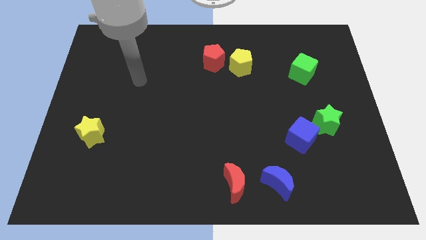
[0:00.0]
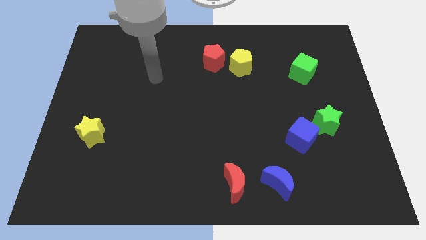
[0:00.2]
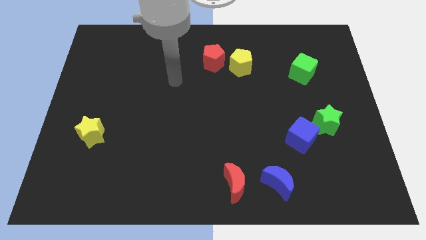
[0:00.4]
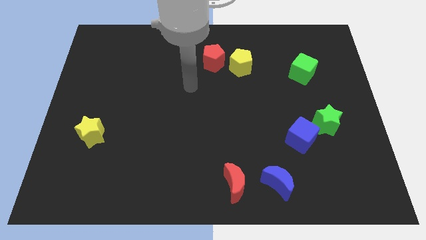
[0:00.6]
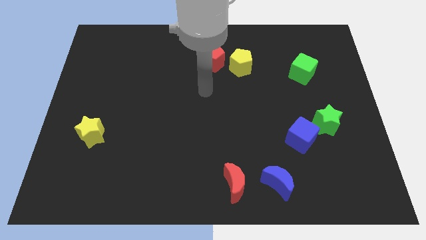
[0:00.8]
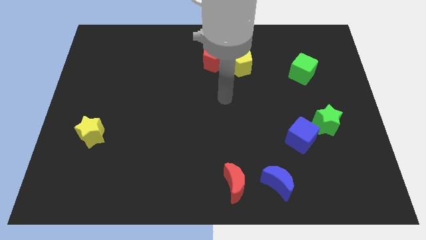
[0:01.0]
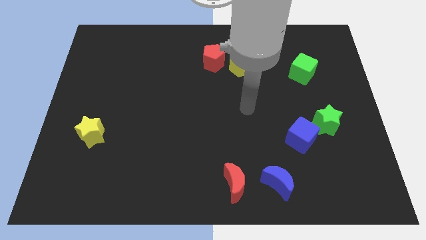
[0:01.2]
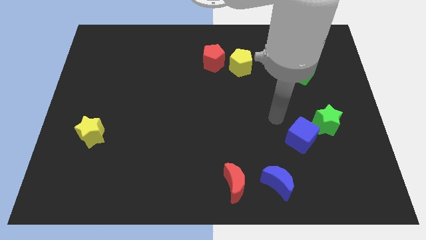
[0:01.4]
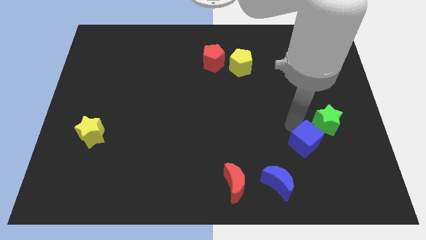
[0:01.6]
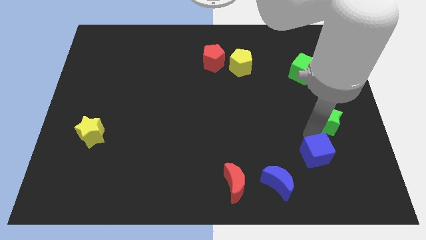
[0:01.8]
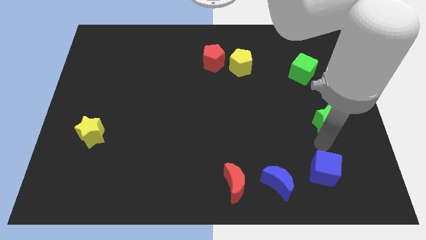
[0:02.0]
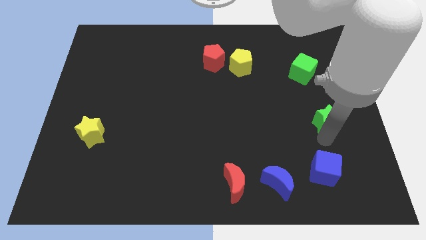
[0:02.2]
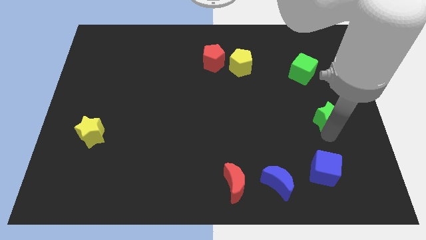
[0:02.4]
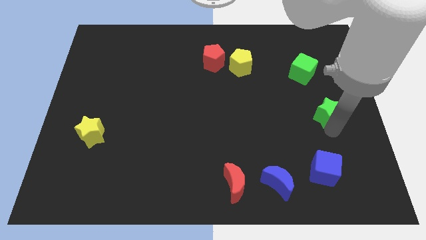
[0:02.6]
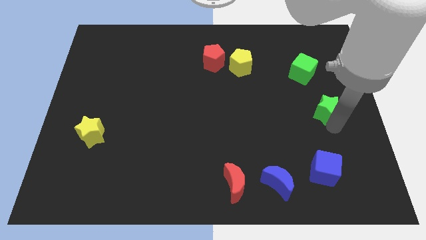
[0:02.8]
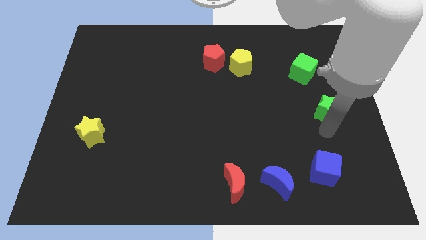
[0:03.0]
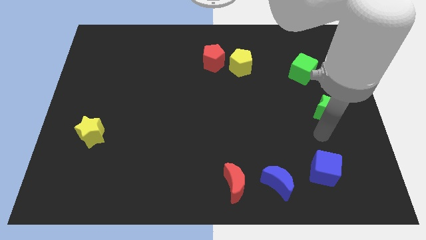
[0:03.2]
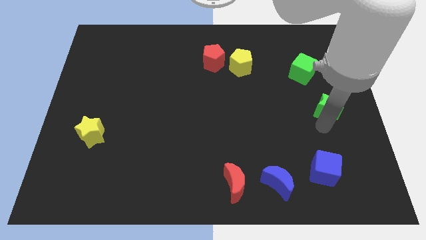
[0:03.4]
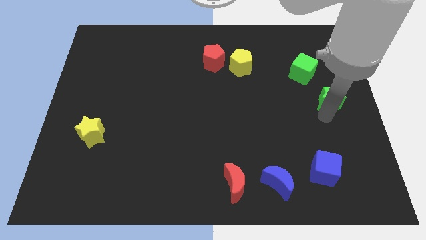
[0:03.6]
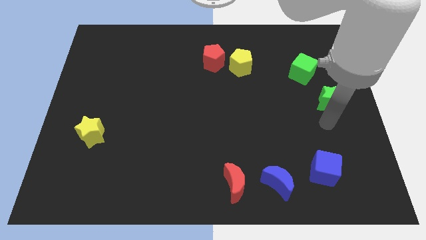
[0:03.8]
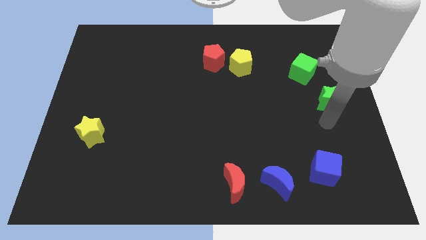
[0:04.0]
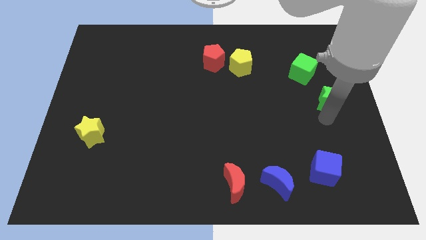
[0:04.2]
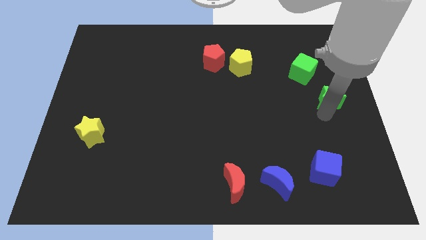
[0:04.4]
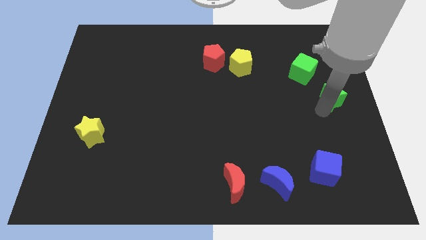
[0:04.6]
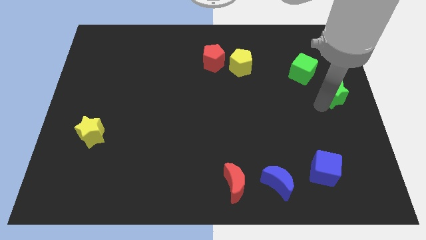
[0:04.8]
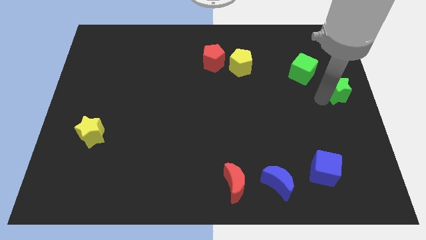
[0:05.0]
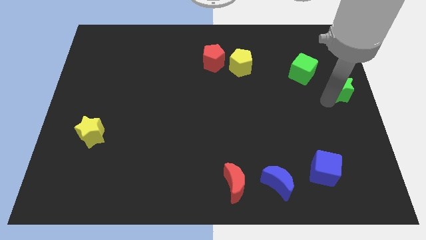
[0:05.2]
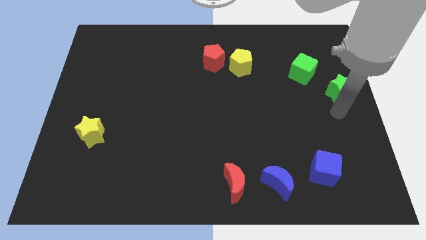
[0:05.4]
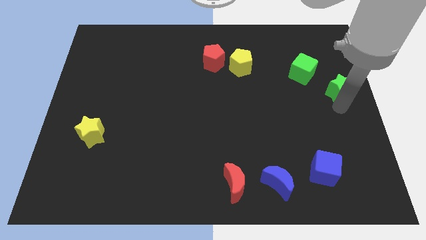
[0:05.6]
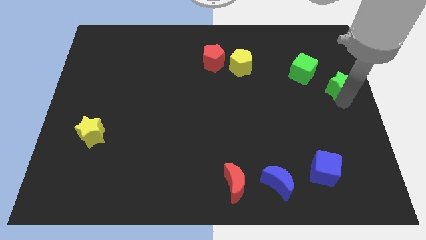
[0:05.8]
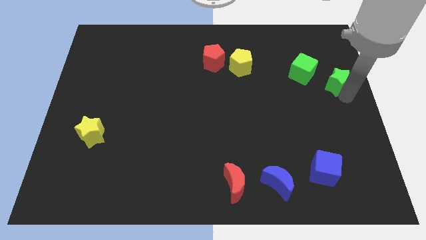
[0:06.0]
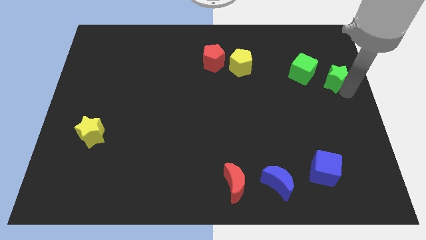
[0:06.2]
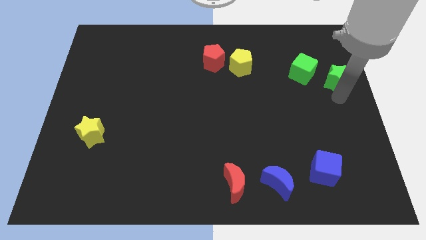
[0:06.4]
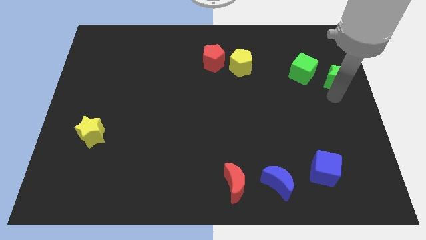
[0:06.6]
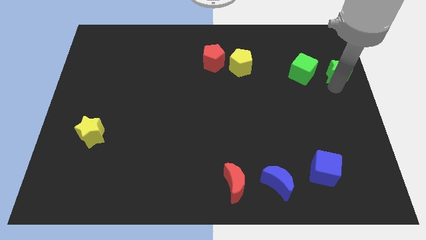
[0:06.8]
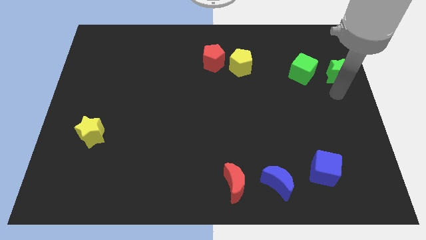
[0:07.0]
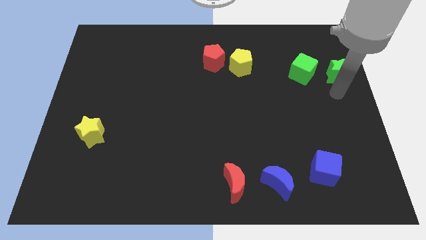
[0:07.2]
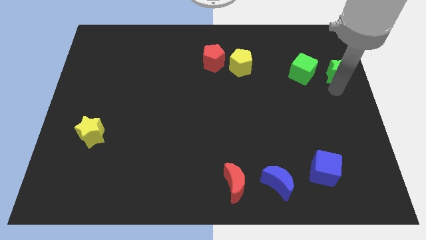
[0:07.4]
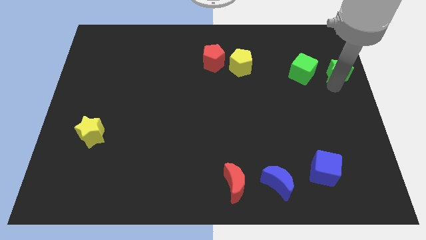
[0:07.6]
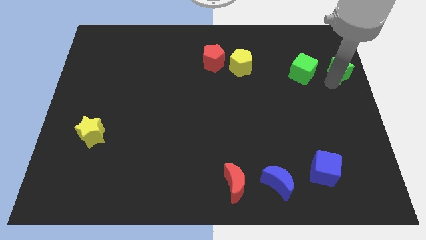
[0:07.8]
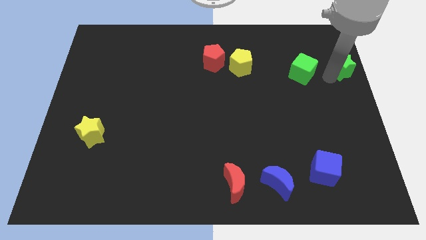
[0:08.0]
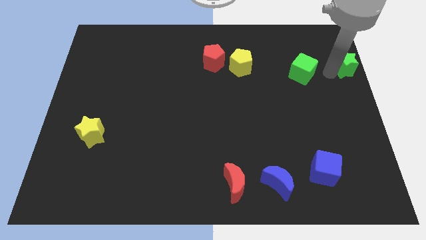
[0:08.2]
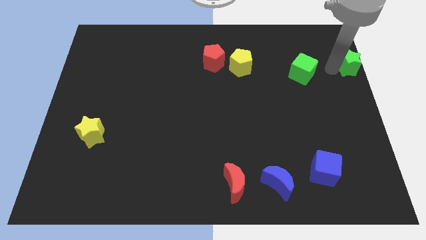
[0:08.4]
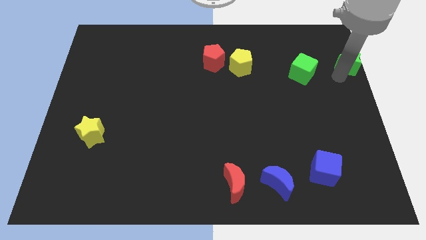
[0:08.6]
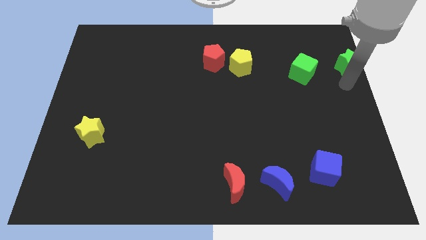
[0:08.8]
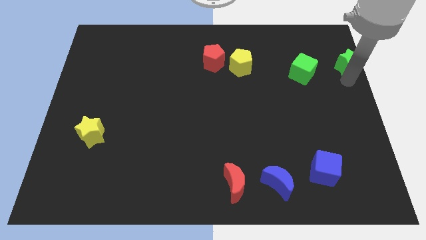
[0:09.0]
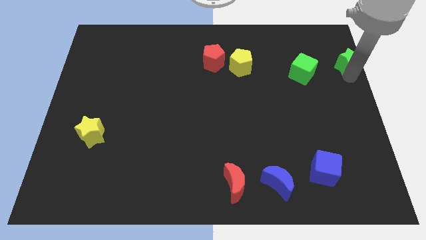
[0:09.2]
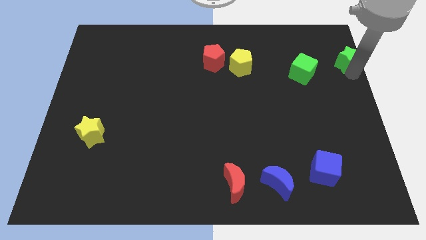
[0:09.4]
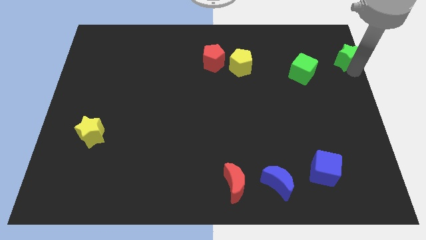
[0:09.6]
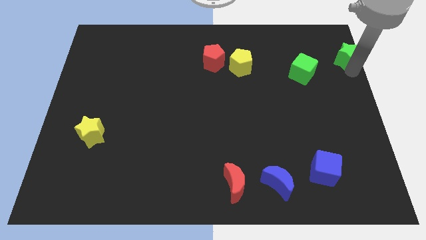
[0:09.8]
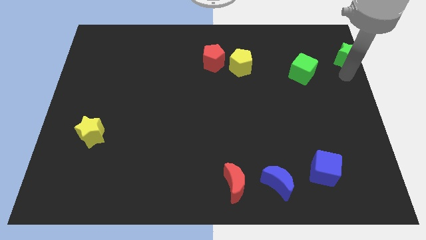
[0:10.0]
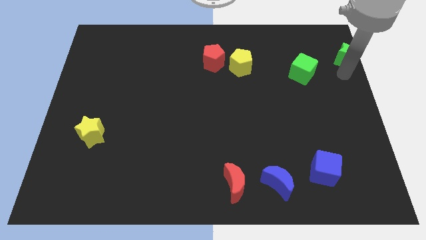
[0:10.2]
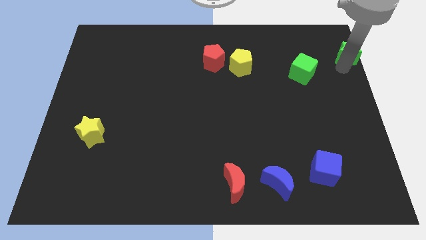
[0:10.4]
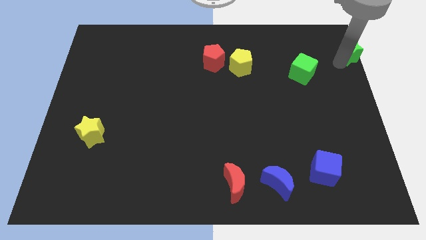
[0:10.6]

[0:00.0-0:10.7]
put the green star to the top right of the board
